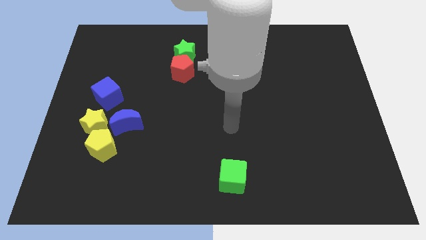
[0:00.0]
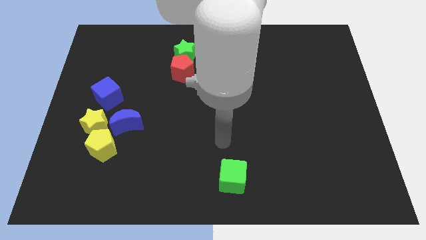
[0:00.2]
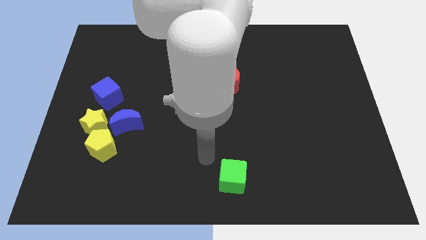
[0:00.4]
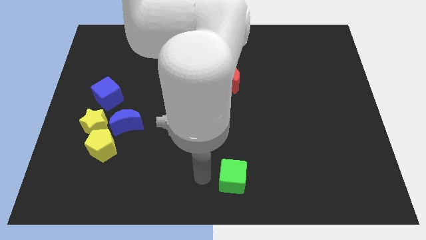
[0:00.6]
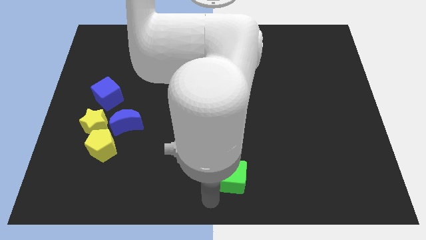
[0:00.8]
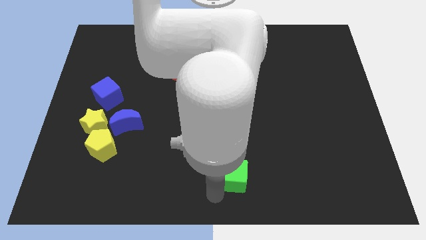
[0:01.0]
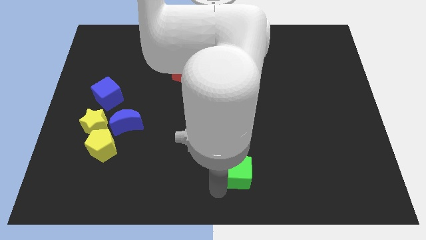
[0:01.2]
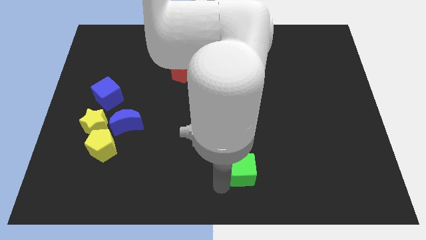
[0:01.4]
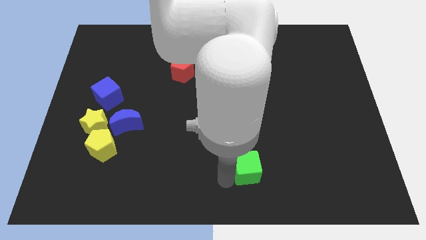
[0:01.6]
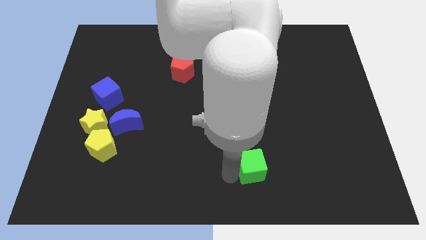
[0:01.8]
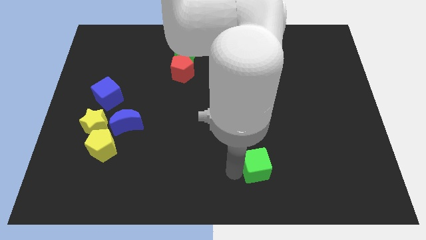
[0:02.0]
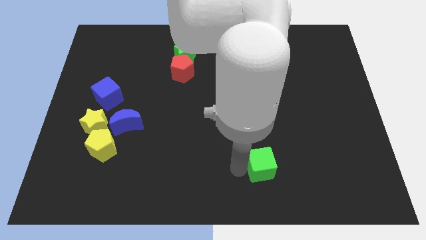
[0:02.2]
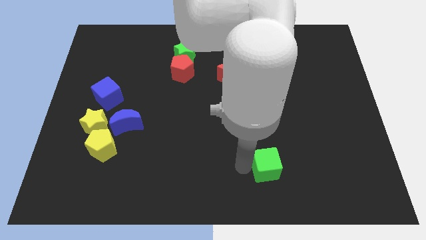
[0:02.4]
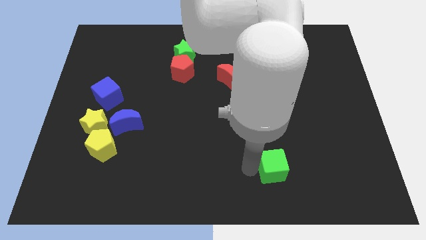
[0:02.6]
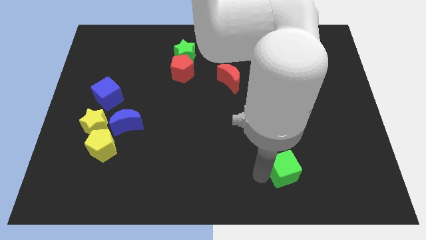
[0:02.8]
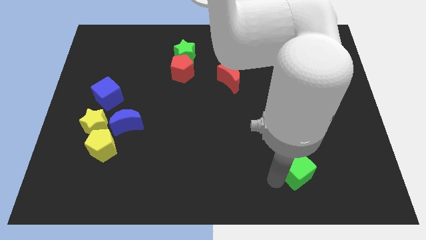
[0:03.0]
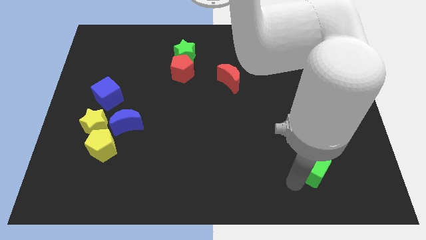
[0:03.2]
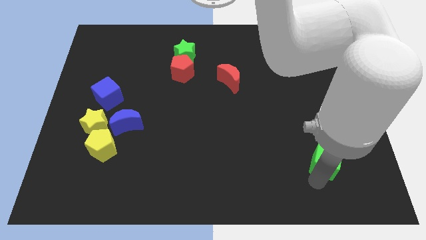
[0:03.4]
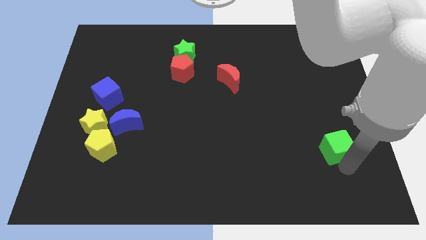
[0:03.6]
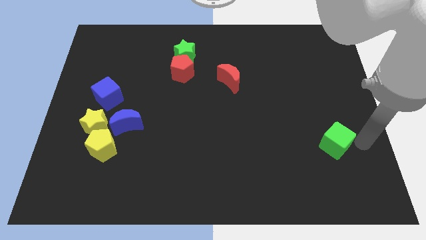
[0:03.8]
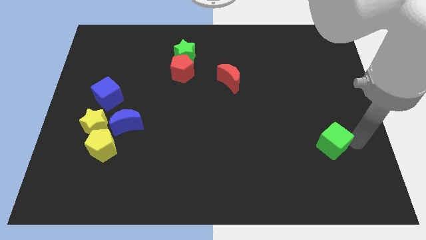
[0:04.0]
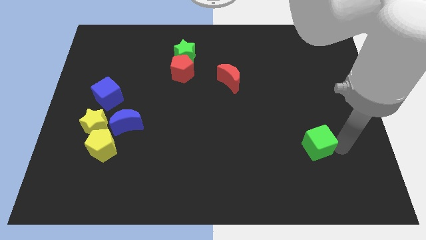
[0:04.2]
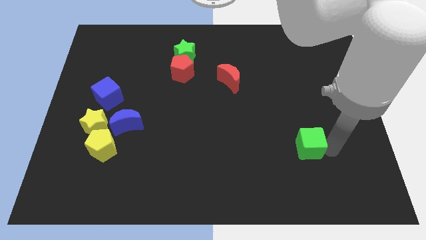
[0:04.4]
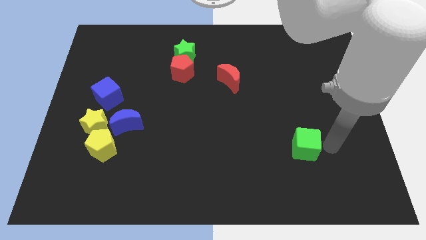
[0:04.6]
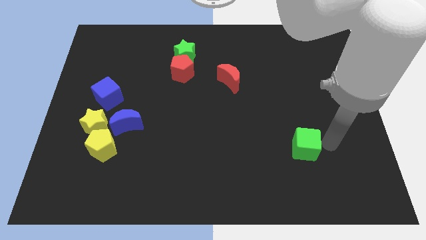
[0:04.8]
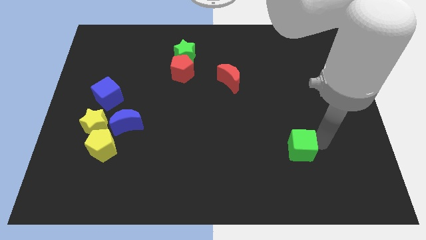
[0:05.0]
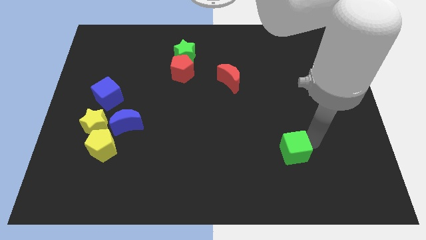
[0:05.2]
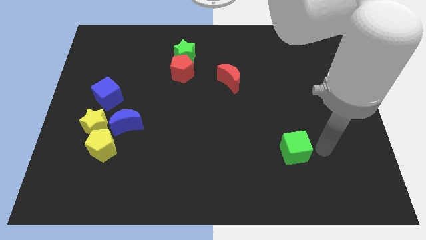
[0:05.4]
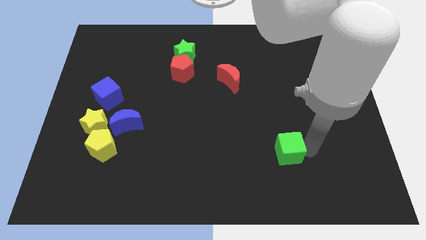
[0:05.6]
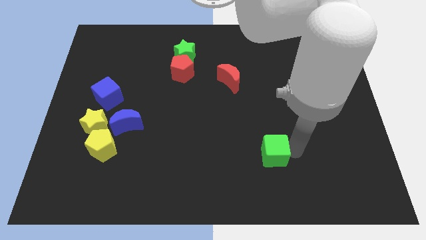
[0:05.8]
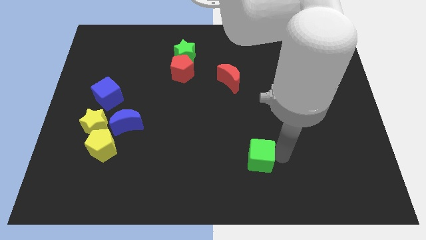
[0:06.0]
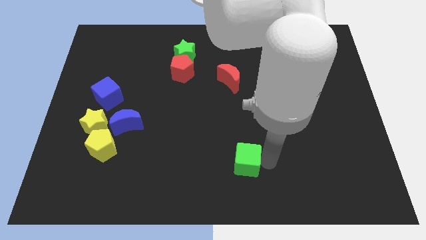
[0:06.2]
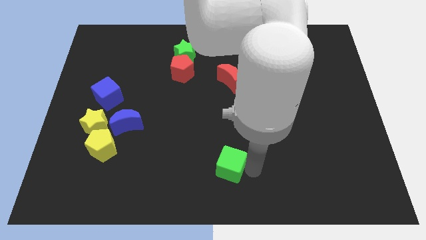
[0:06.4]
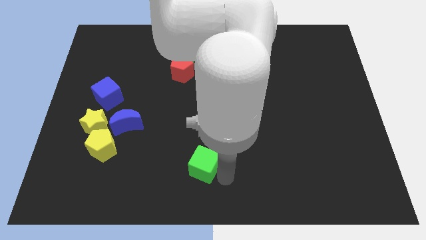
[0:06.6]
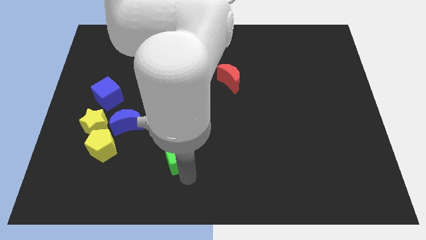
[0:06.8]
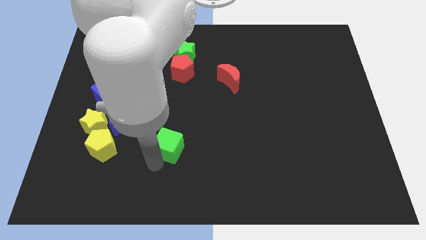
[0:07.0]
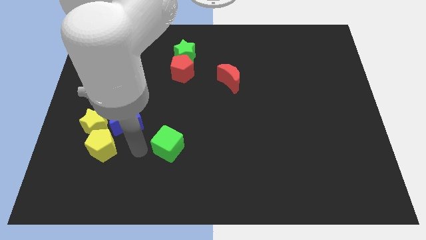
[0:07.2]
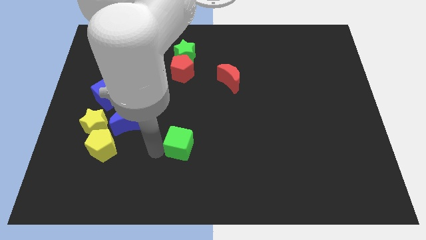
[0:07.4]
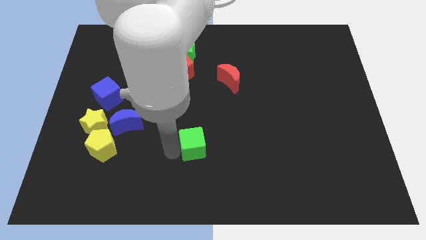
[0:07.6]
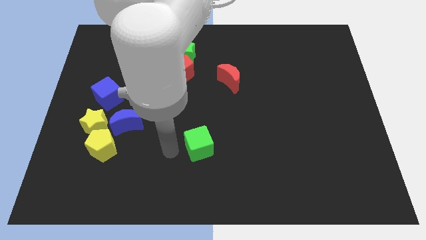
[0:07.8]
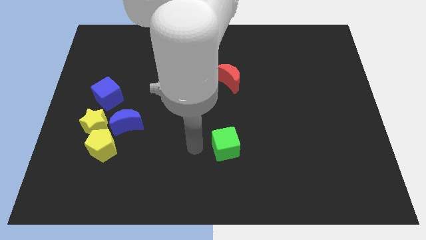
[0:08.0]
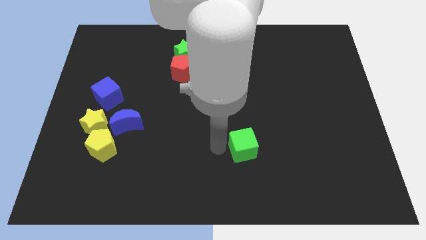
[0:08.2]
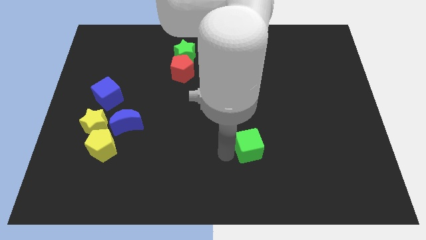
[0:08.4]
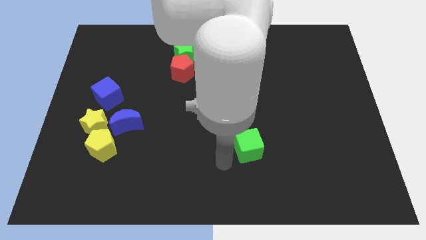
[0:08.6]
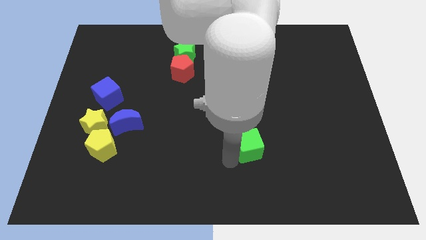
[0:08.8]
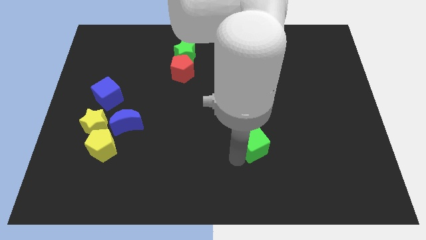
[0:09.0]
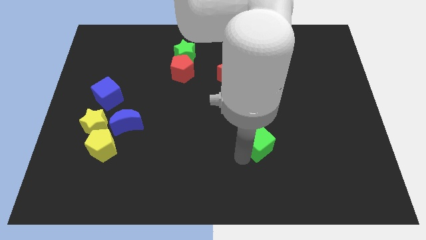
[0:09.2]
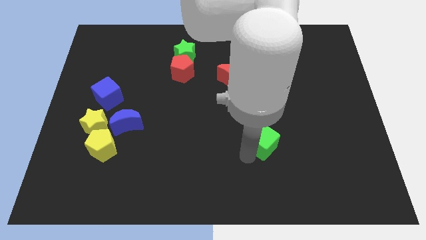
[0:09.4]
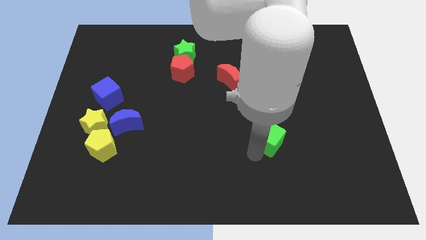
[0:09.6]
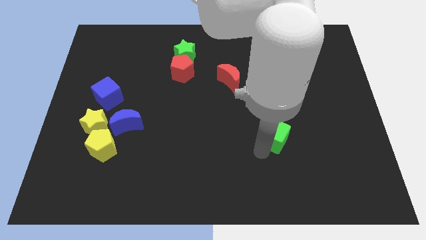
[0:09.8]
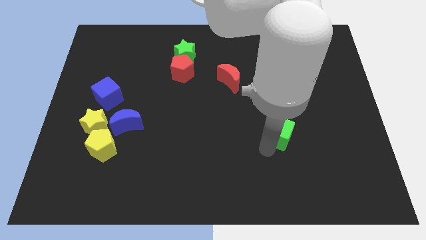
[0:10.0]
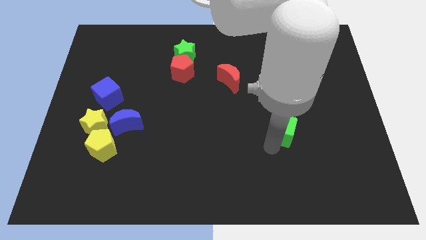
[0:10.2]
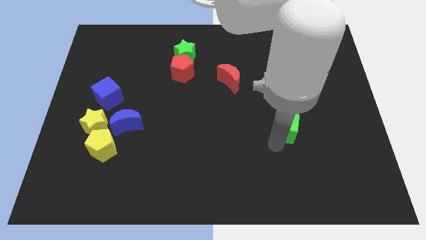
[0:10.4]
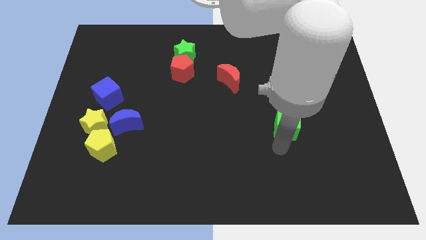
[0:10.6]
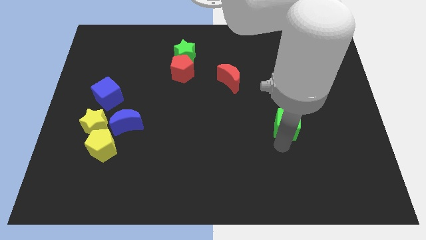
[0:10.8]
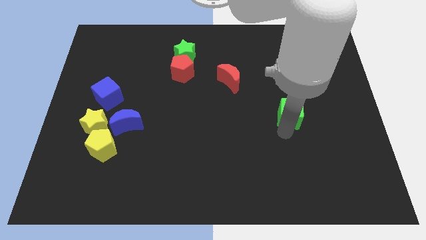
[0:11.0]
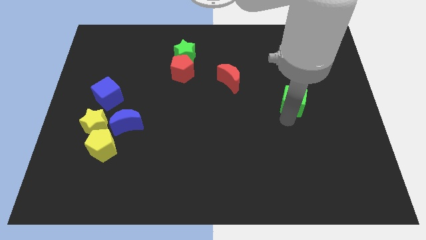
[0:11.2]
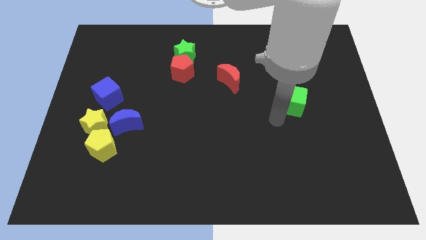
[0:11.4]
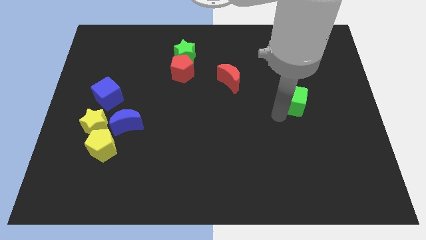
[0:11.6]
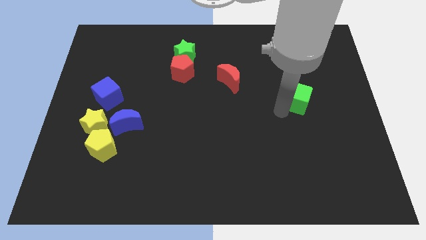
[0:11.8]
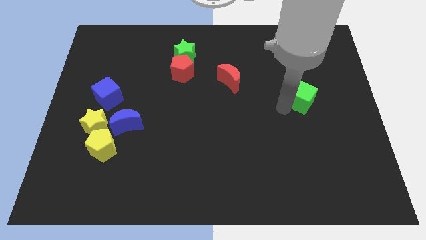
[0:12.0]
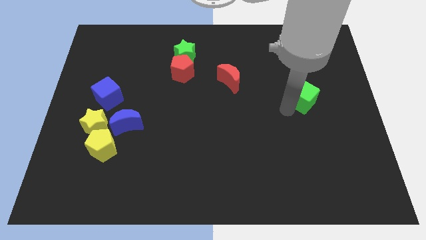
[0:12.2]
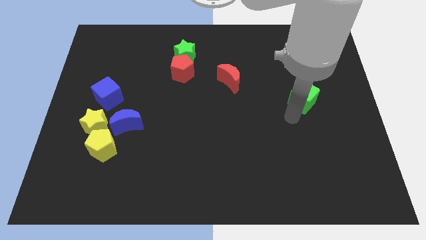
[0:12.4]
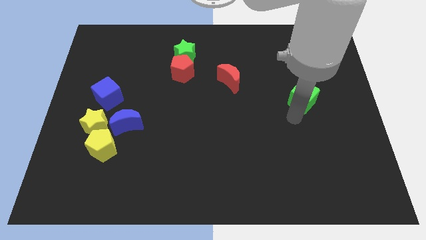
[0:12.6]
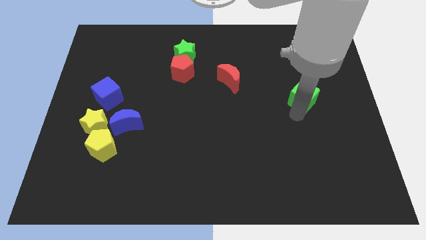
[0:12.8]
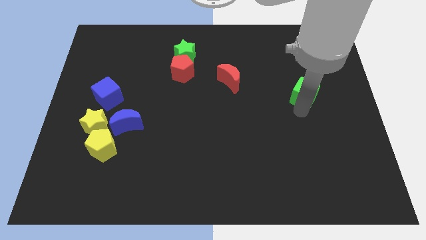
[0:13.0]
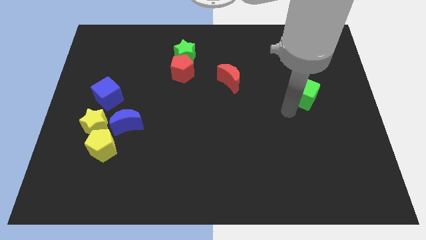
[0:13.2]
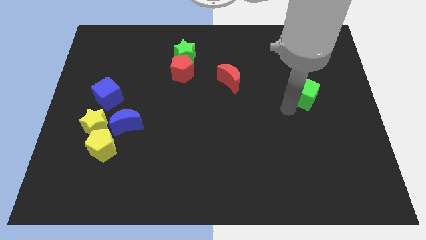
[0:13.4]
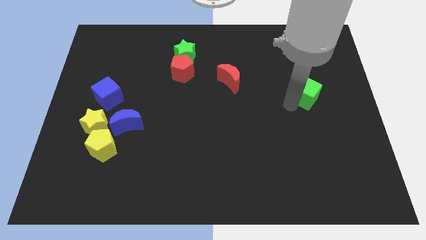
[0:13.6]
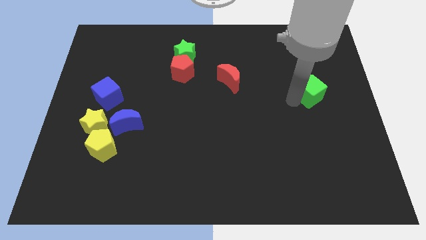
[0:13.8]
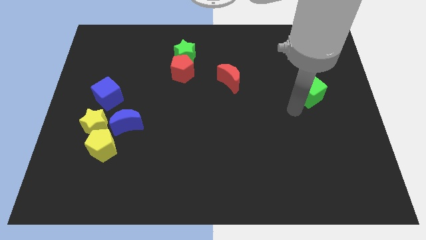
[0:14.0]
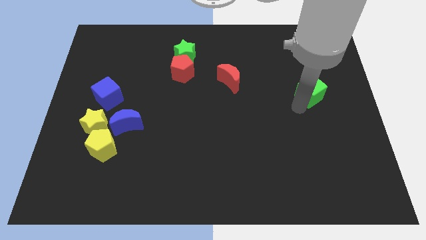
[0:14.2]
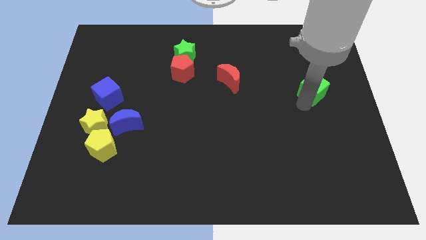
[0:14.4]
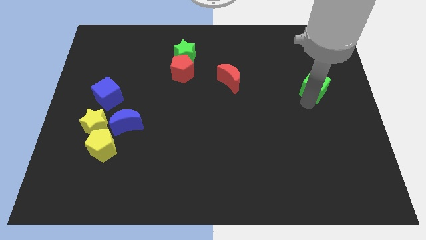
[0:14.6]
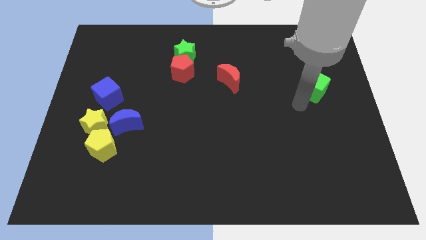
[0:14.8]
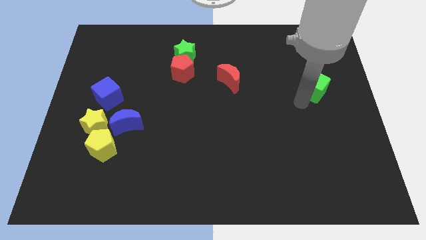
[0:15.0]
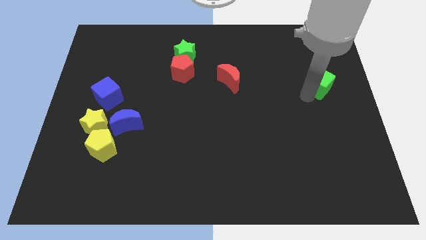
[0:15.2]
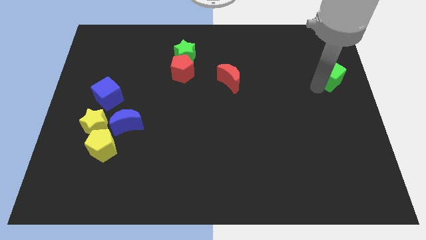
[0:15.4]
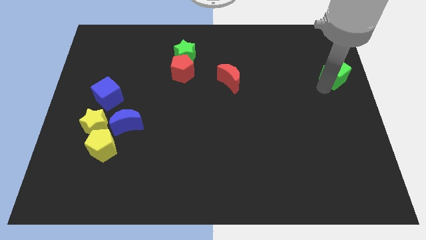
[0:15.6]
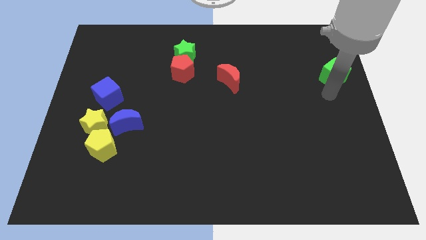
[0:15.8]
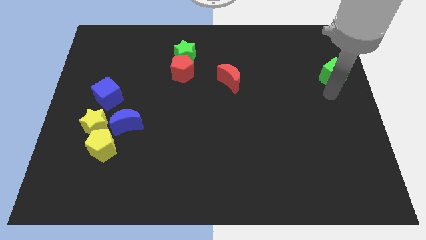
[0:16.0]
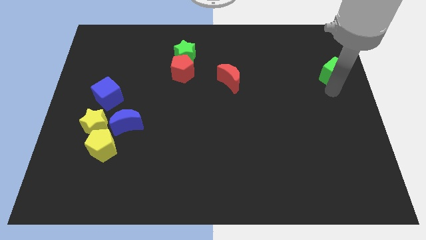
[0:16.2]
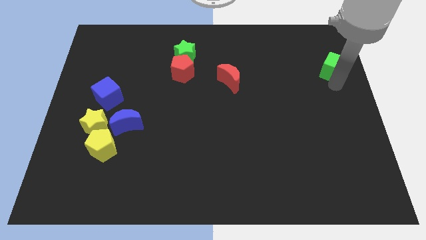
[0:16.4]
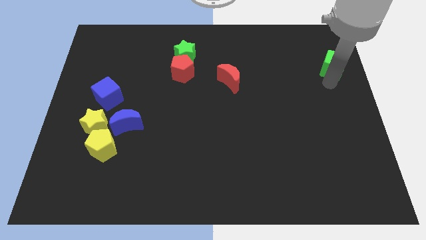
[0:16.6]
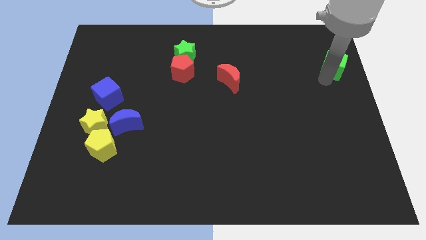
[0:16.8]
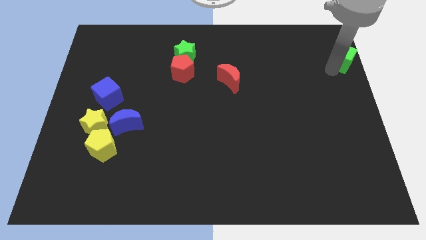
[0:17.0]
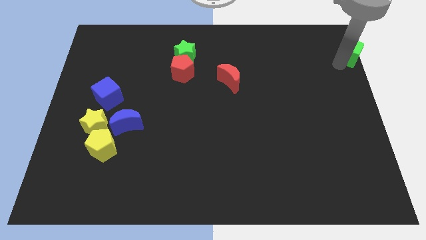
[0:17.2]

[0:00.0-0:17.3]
push the green cube to the top right corner
